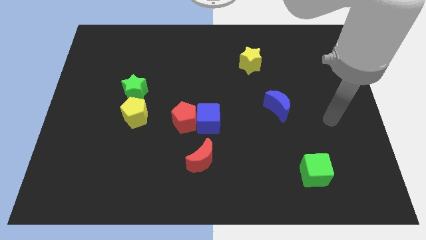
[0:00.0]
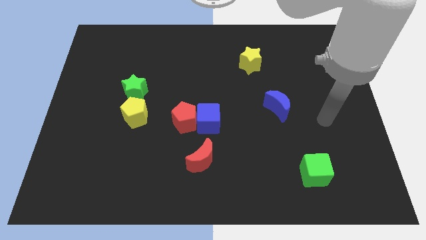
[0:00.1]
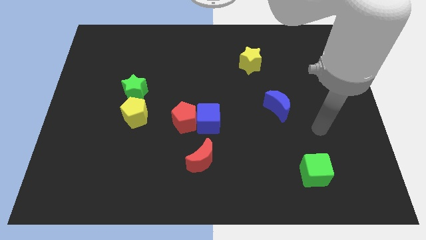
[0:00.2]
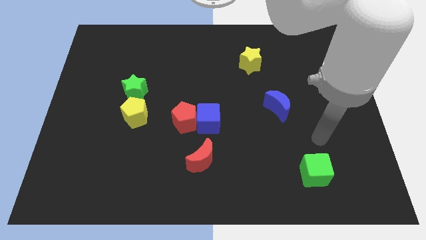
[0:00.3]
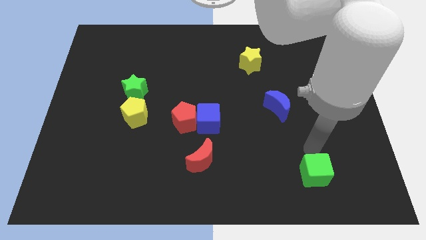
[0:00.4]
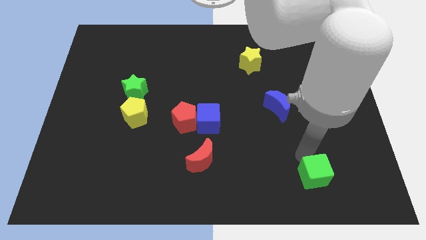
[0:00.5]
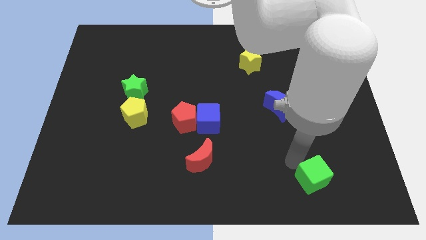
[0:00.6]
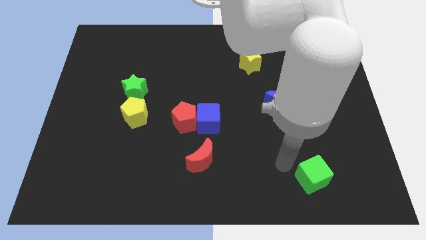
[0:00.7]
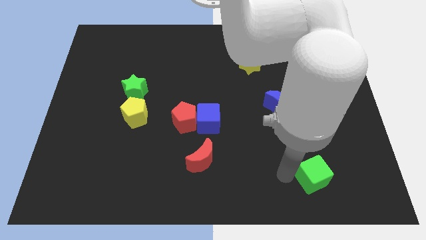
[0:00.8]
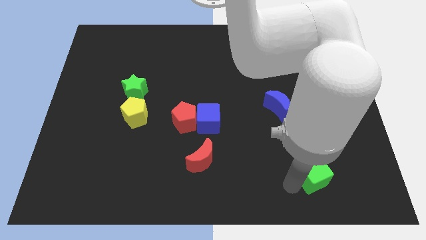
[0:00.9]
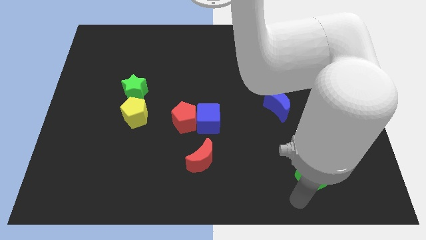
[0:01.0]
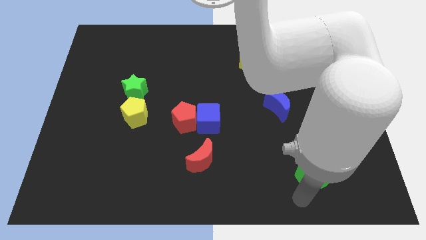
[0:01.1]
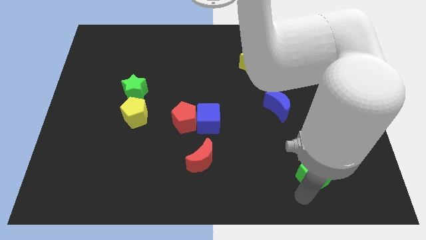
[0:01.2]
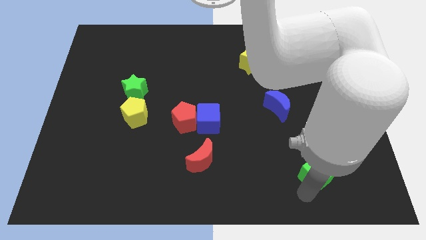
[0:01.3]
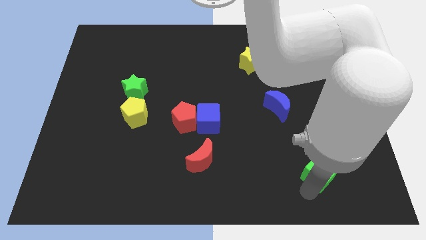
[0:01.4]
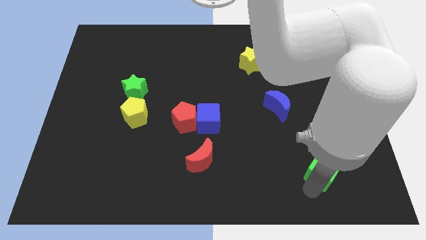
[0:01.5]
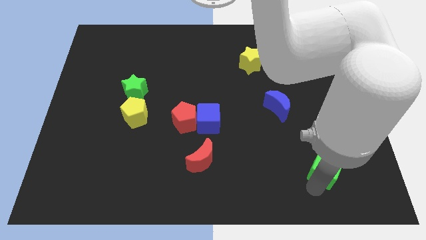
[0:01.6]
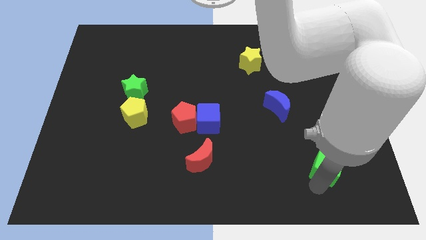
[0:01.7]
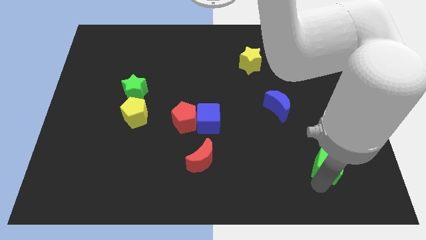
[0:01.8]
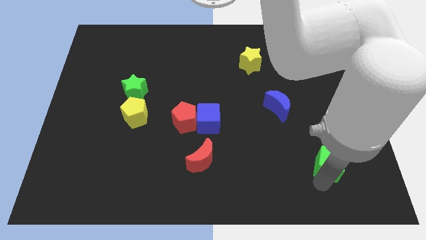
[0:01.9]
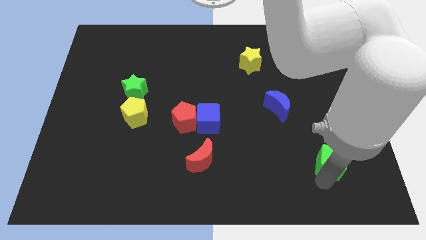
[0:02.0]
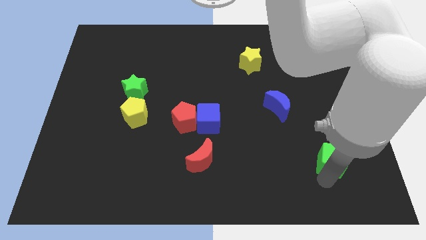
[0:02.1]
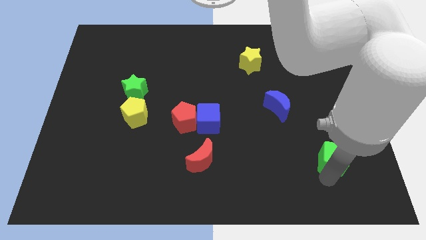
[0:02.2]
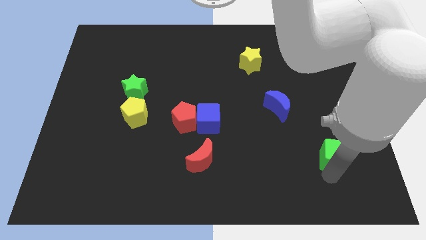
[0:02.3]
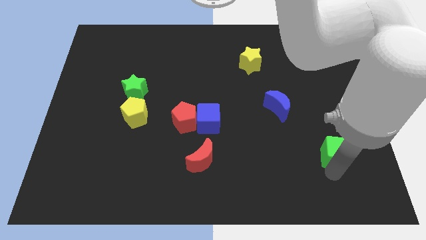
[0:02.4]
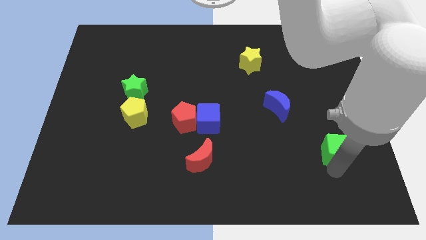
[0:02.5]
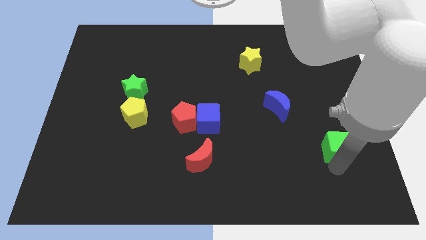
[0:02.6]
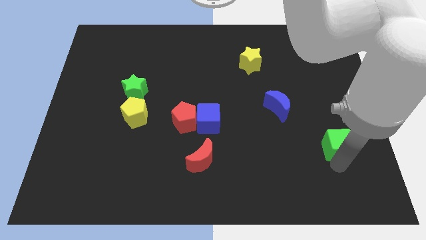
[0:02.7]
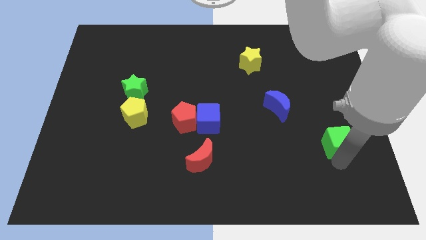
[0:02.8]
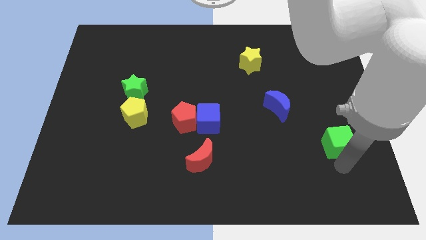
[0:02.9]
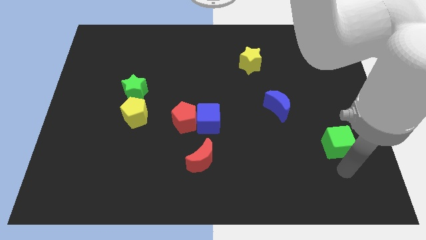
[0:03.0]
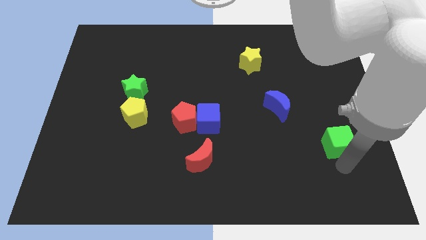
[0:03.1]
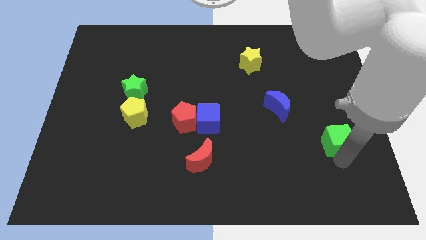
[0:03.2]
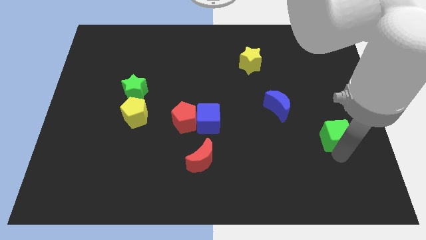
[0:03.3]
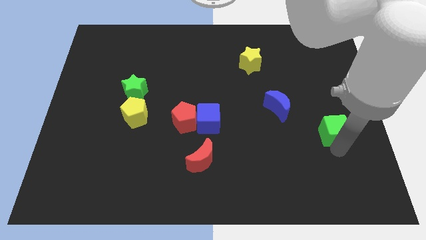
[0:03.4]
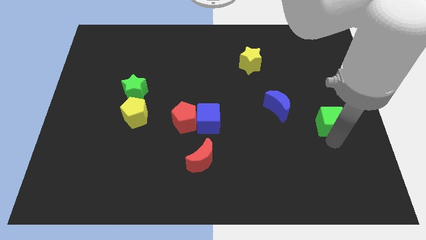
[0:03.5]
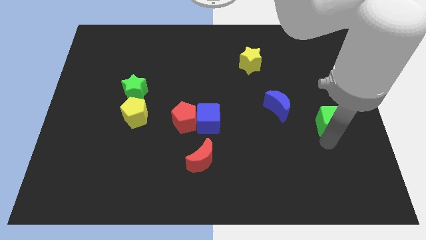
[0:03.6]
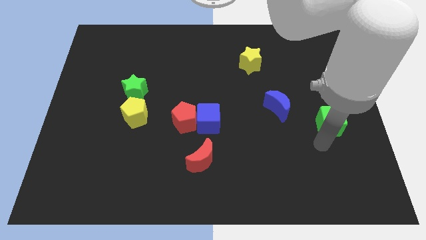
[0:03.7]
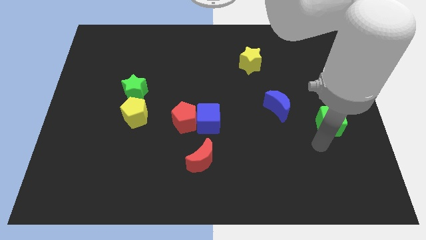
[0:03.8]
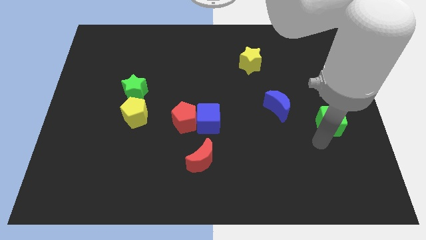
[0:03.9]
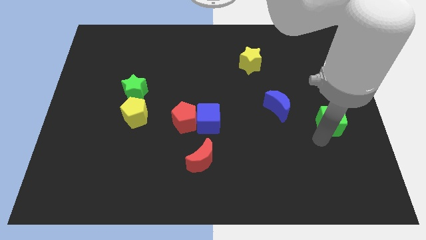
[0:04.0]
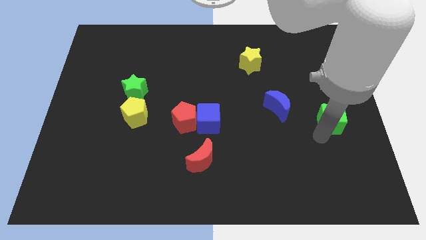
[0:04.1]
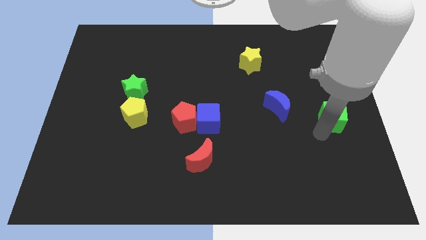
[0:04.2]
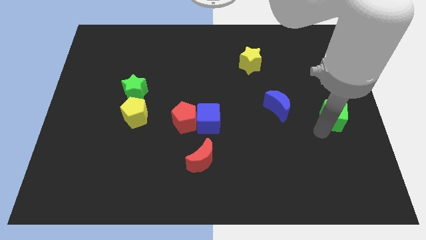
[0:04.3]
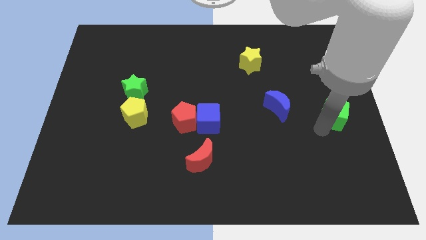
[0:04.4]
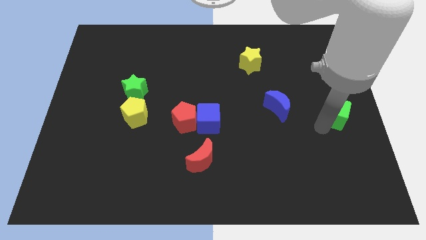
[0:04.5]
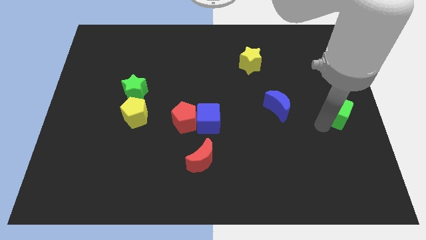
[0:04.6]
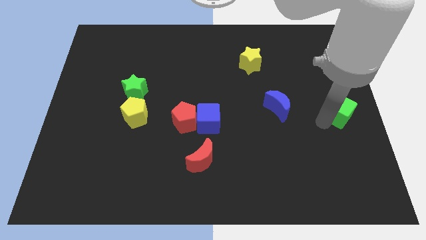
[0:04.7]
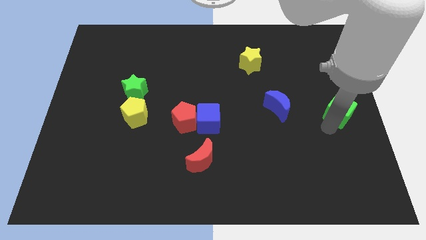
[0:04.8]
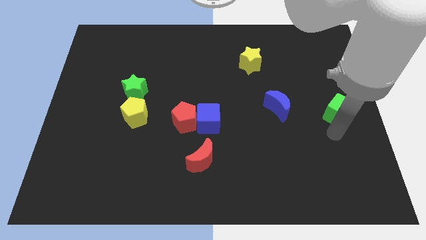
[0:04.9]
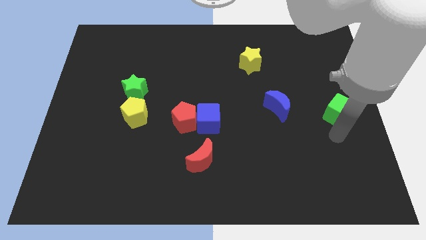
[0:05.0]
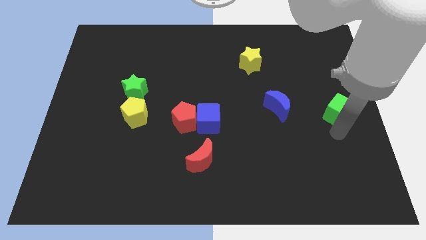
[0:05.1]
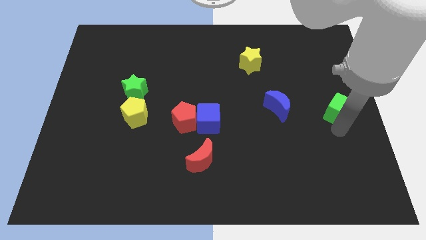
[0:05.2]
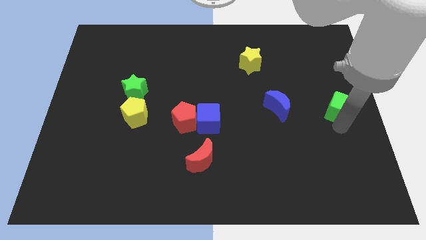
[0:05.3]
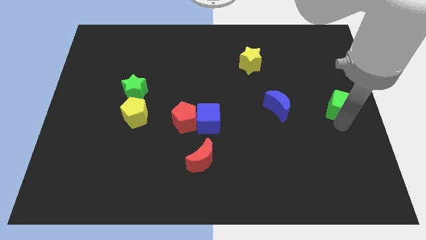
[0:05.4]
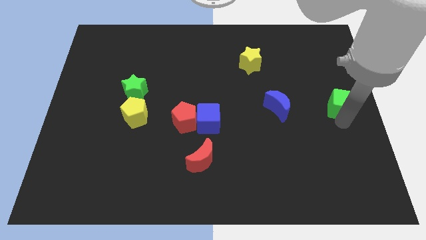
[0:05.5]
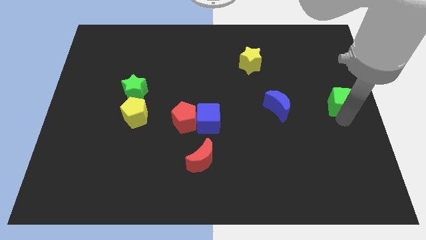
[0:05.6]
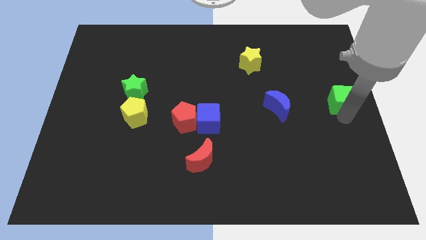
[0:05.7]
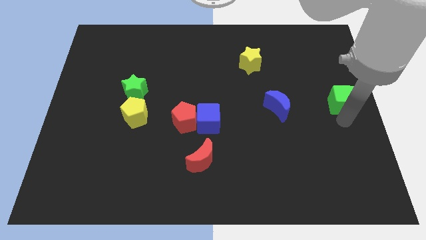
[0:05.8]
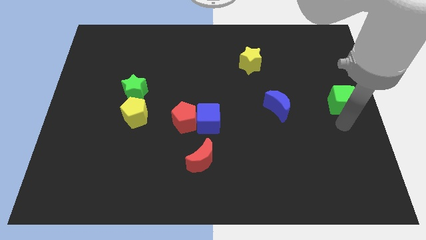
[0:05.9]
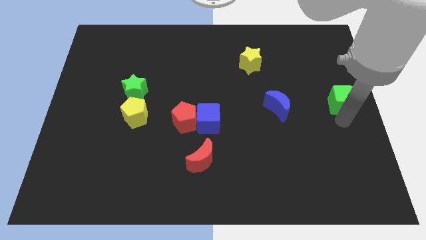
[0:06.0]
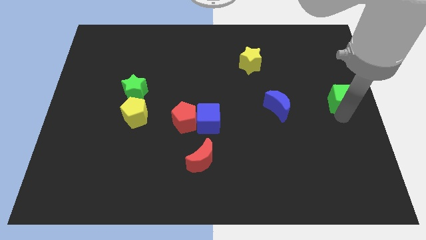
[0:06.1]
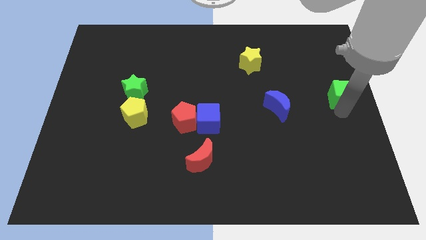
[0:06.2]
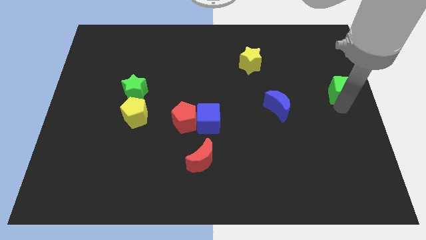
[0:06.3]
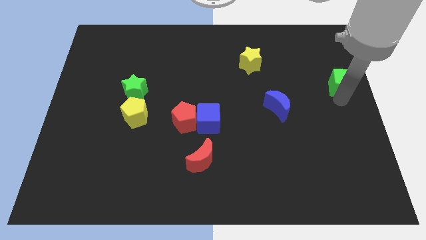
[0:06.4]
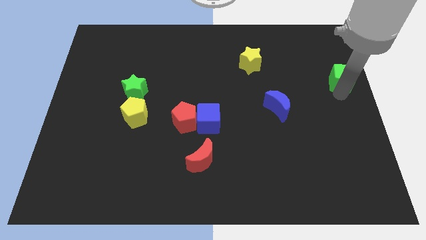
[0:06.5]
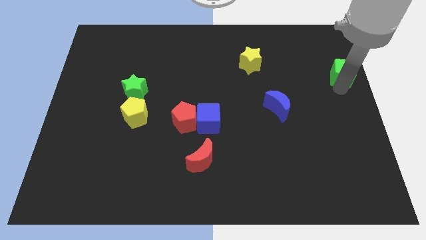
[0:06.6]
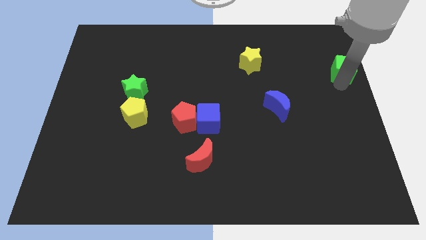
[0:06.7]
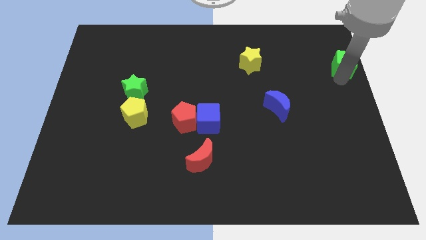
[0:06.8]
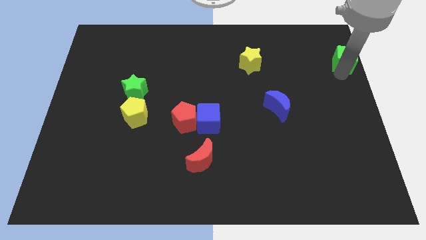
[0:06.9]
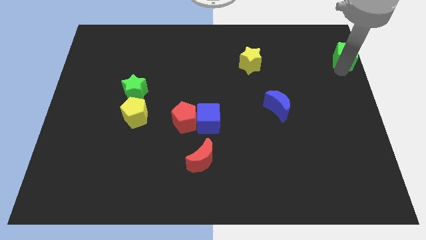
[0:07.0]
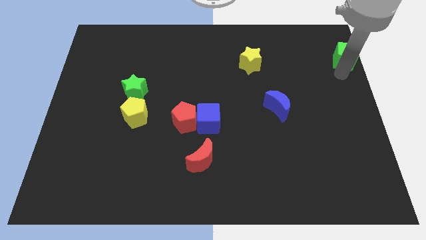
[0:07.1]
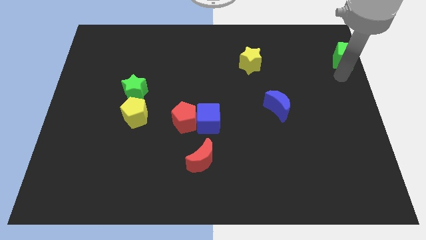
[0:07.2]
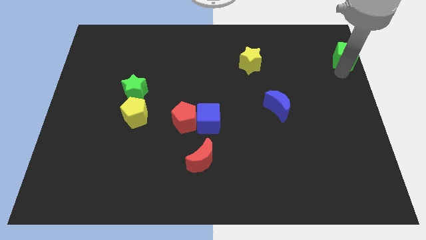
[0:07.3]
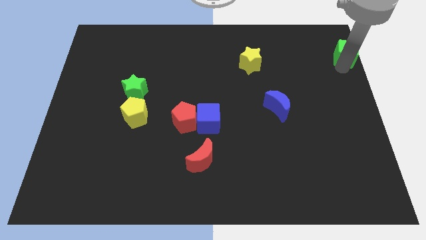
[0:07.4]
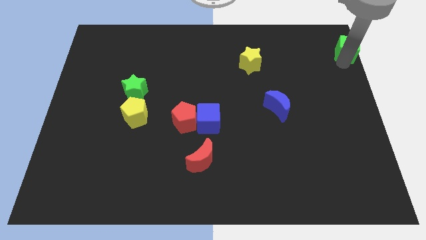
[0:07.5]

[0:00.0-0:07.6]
put the green cube to the top right of the board
